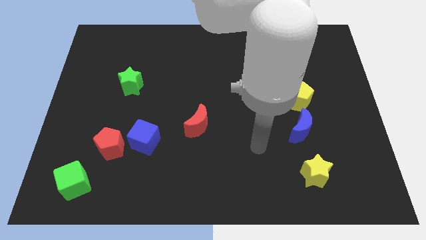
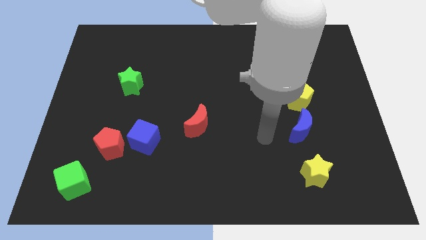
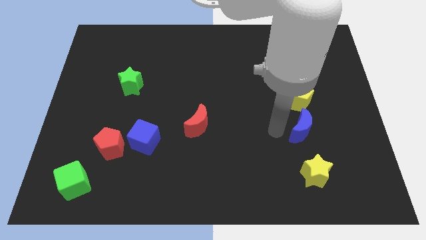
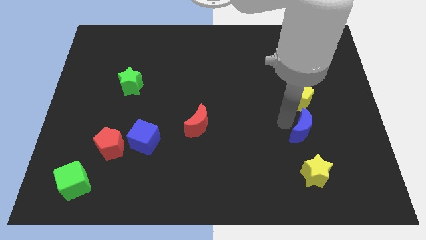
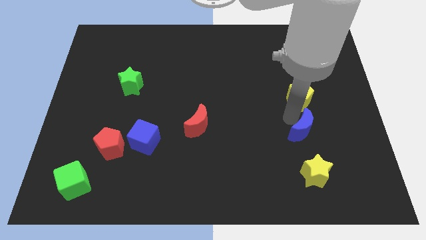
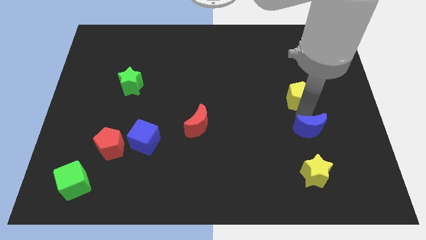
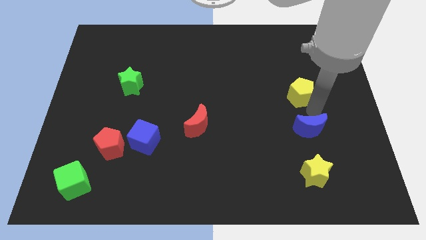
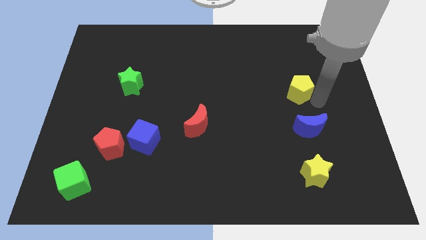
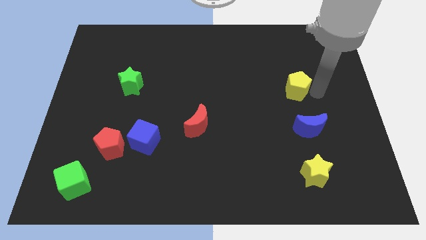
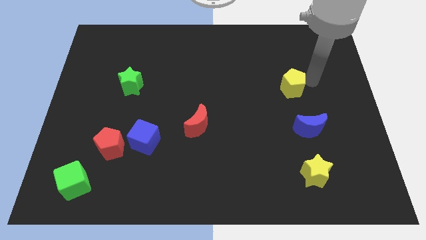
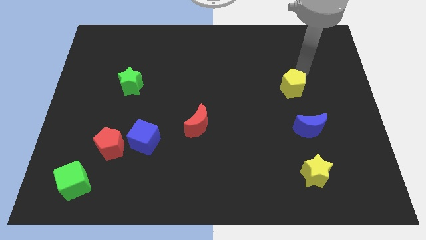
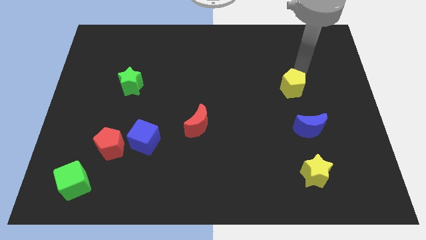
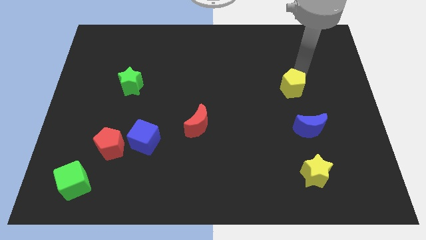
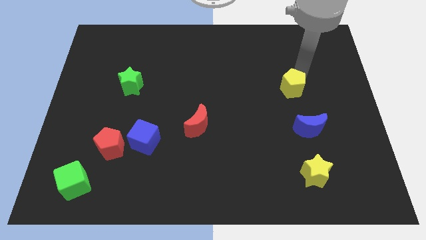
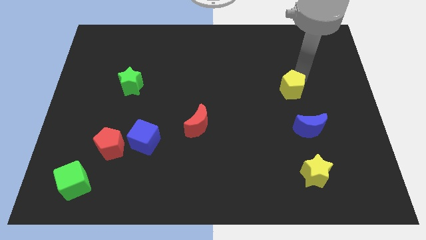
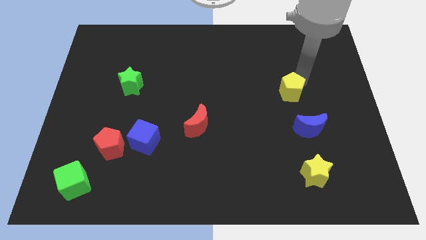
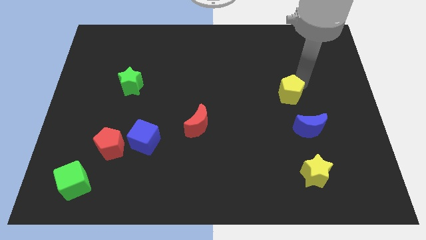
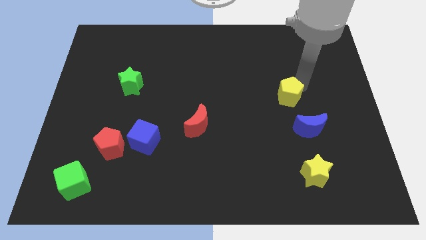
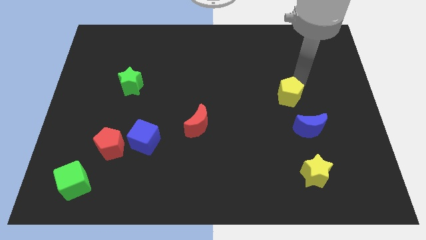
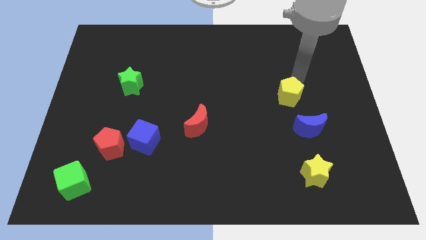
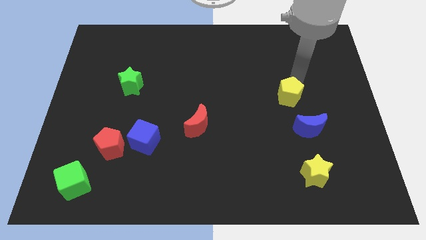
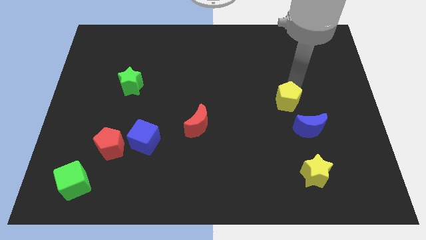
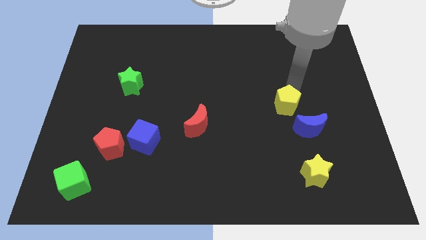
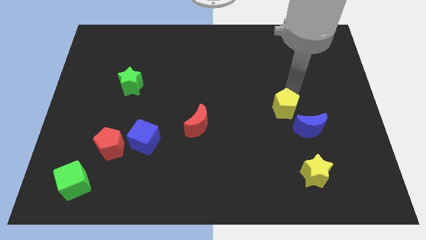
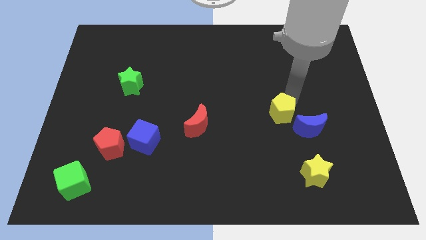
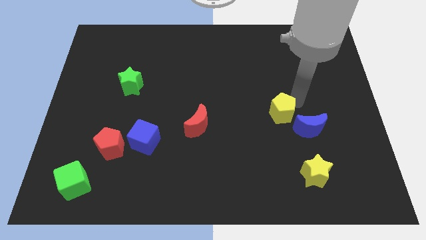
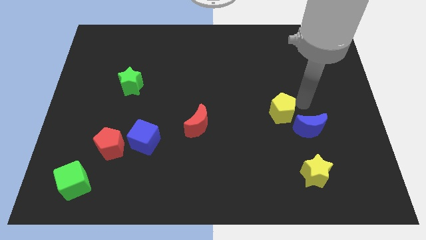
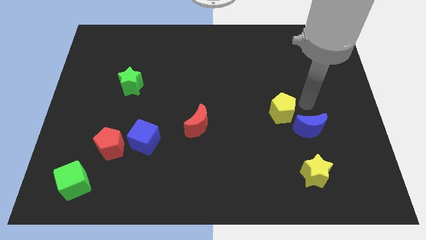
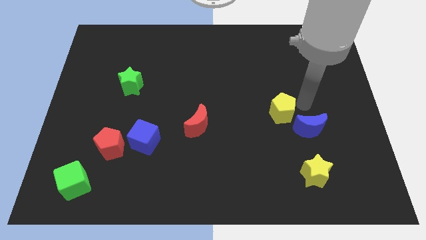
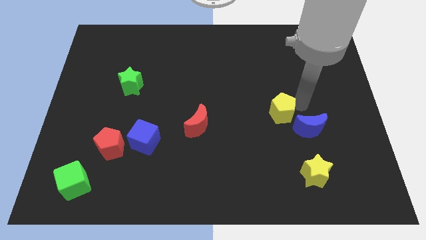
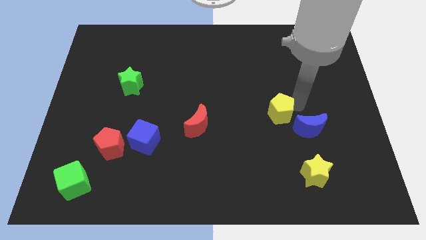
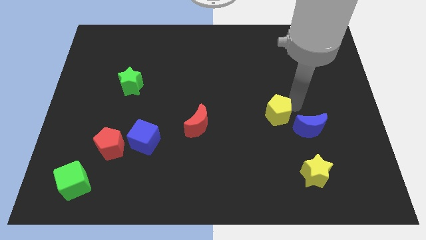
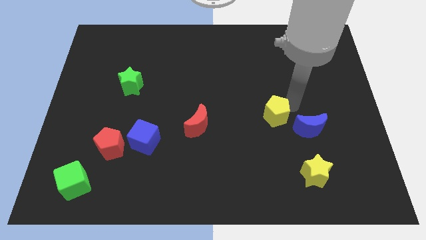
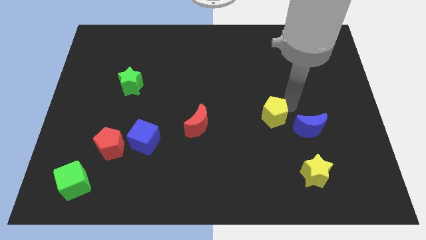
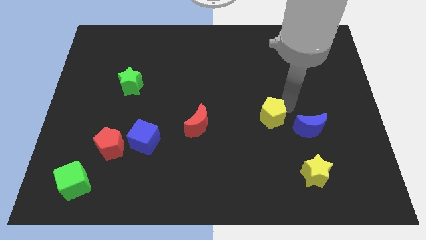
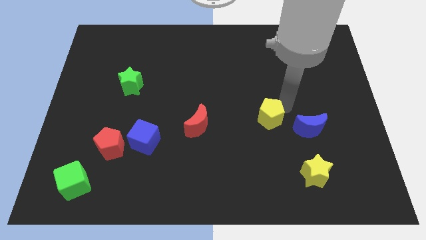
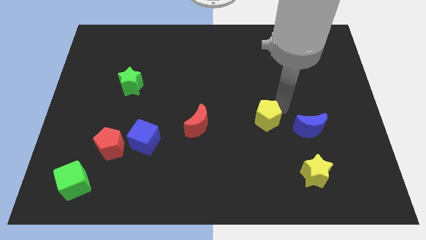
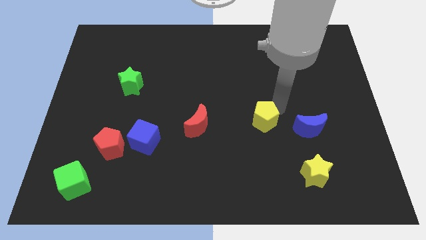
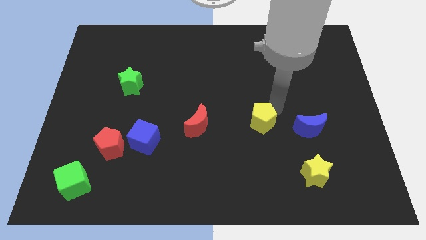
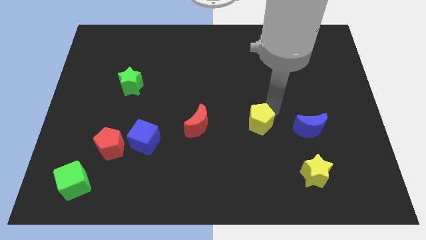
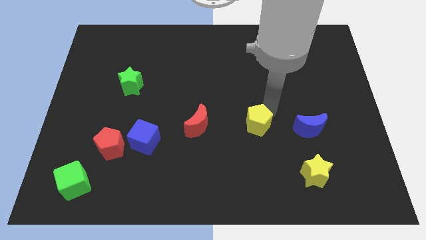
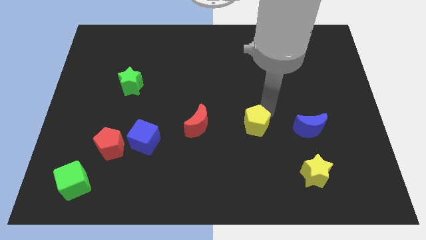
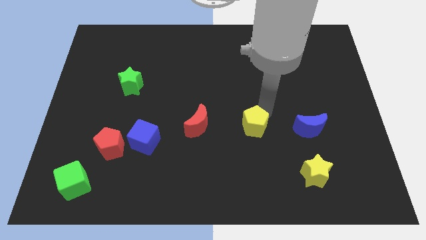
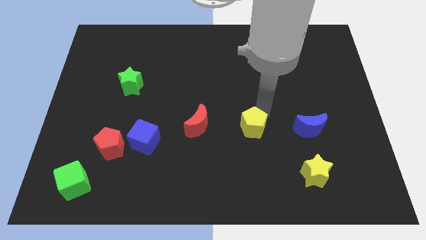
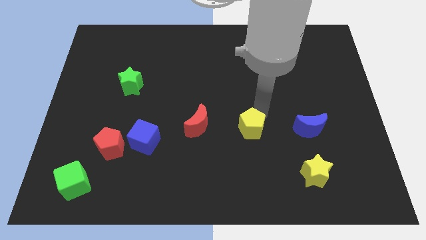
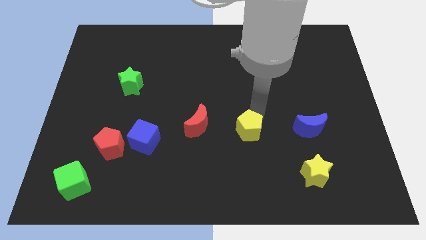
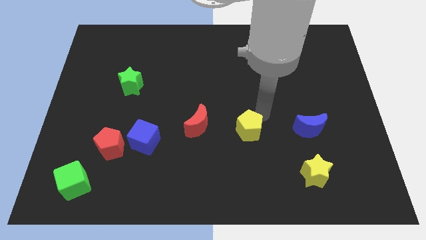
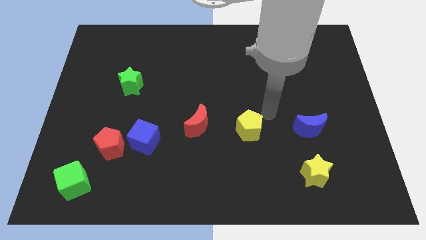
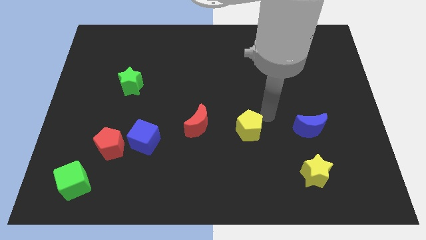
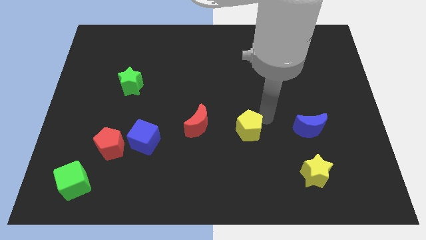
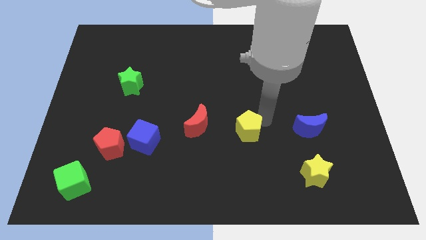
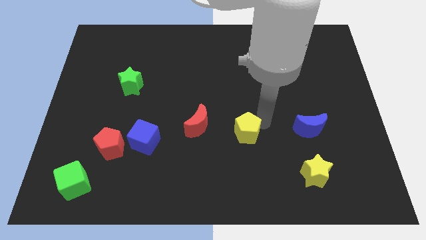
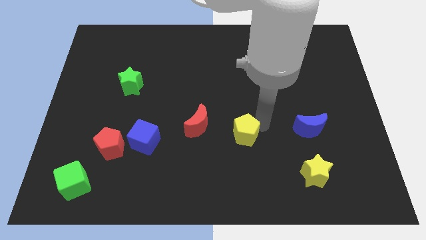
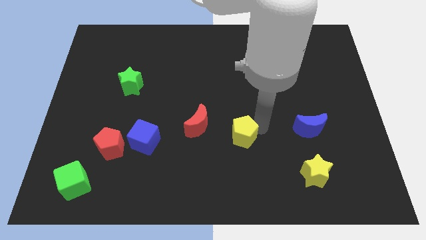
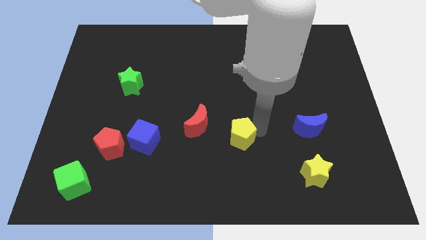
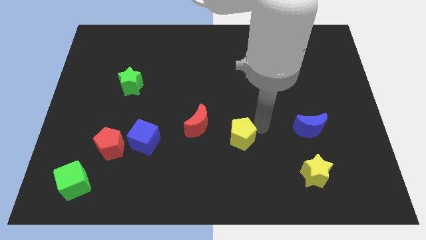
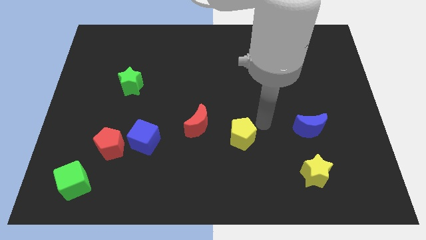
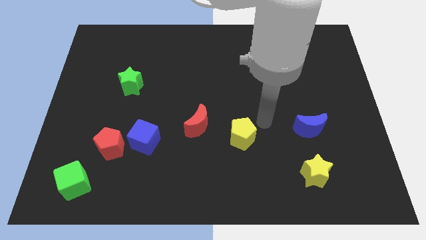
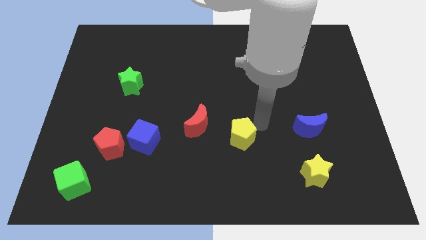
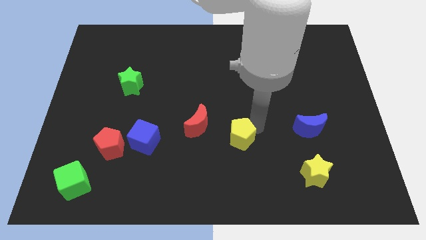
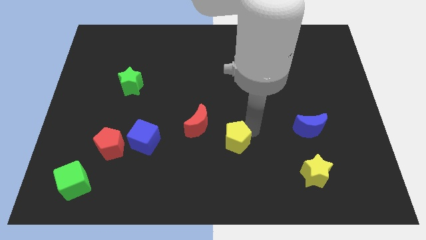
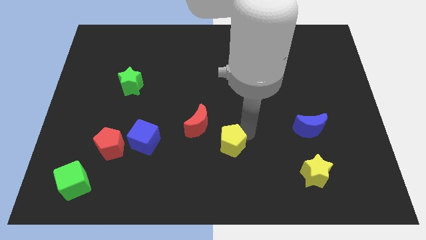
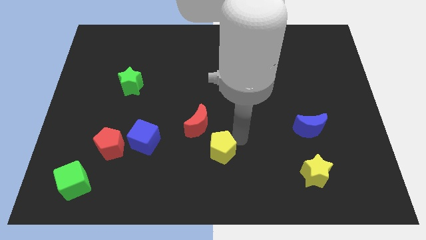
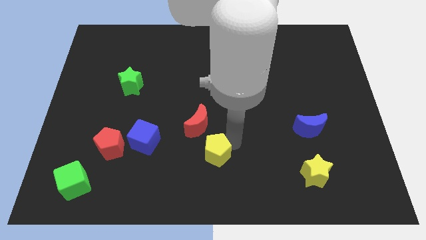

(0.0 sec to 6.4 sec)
slide the yellow pentagon below the red moon

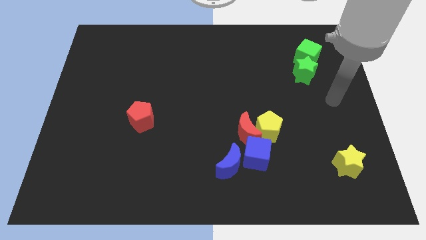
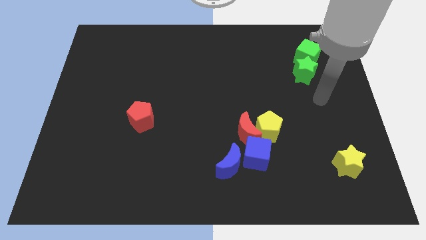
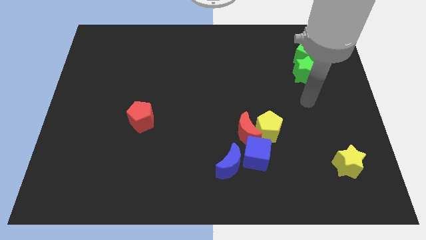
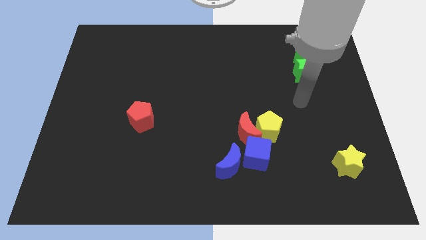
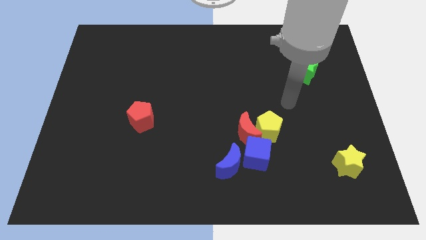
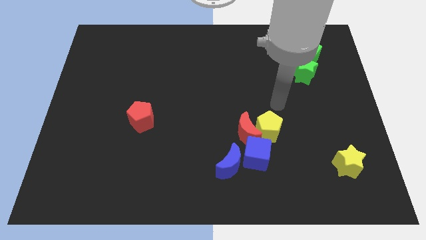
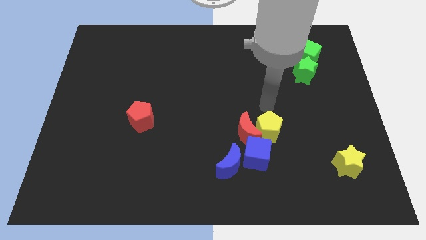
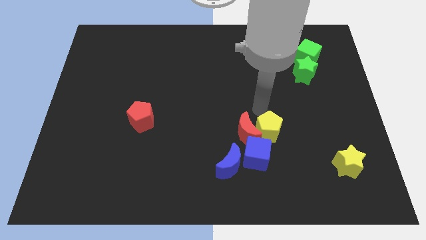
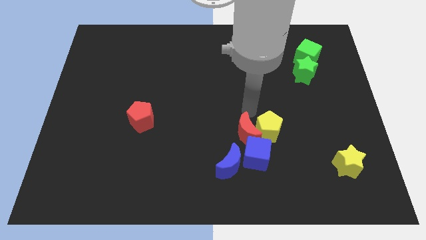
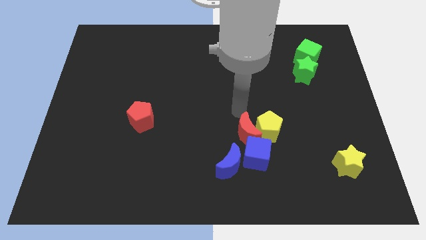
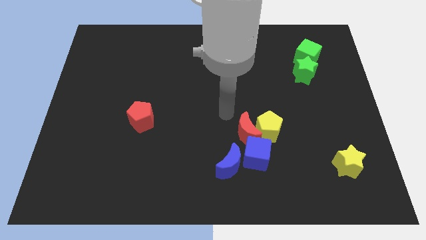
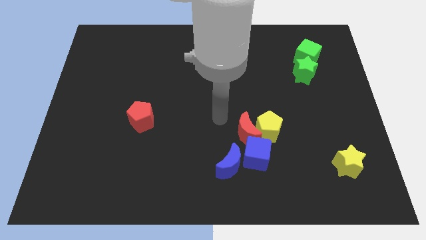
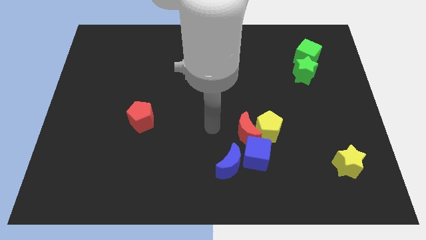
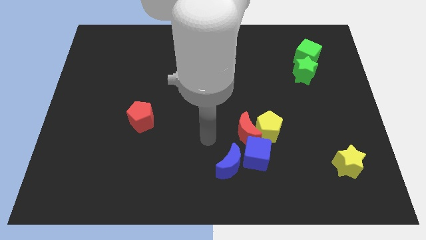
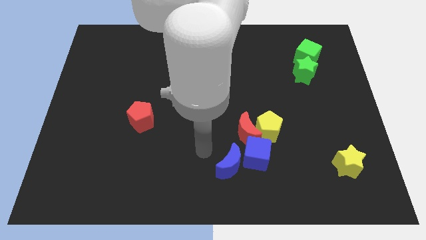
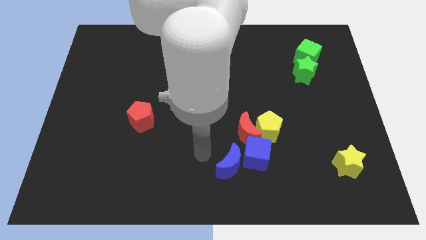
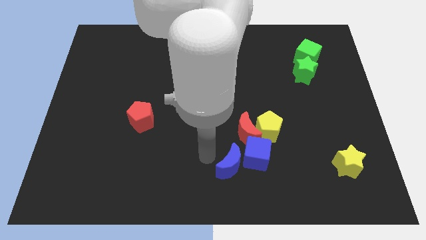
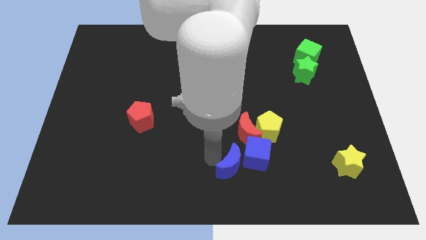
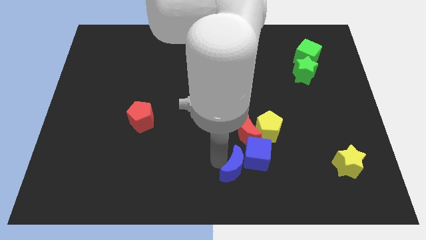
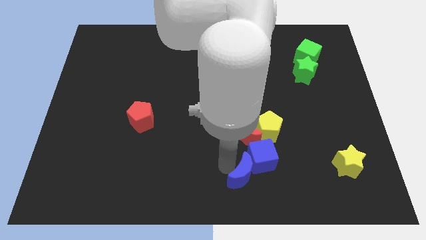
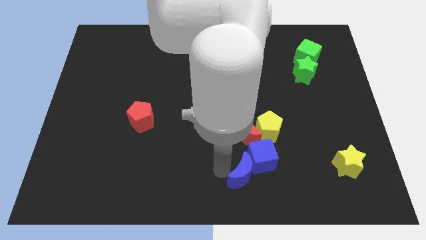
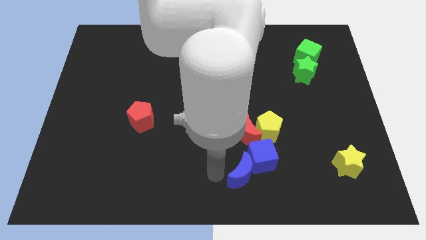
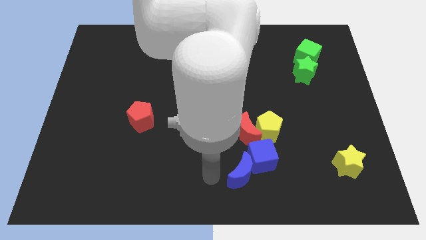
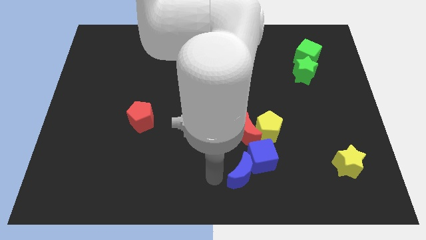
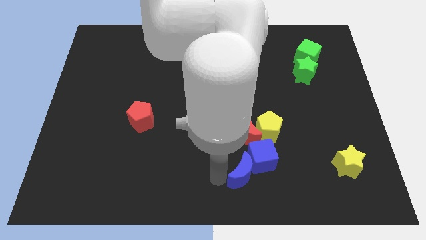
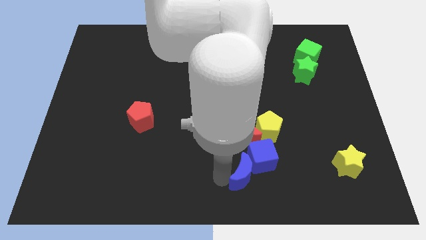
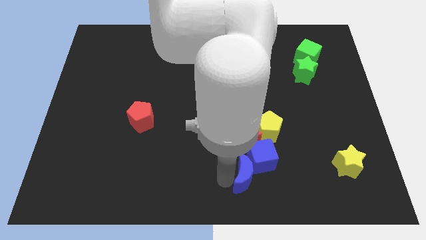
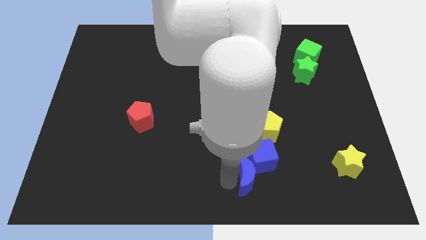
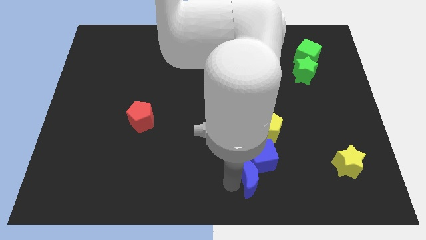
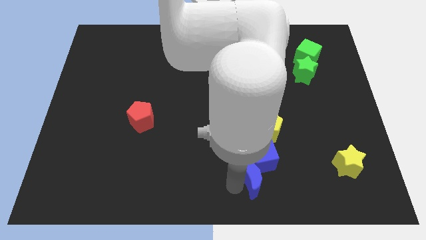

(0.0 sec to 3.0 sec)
push the blue moon to the bottom of the yellow pentagon
